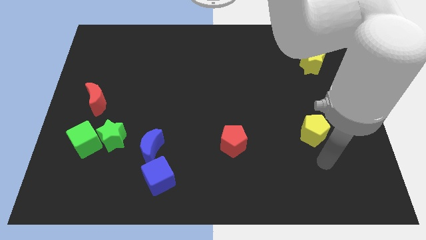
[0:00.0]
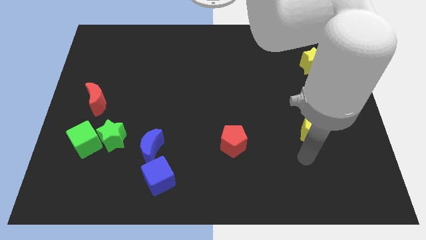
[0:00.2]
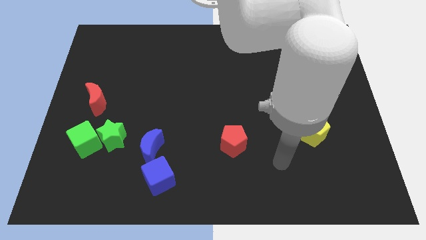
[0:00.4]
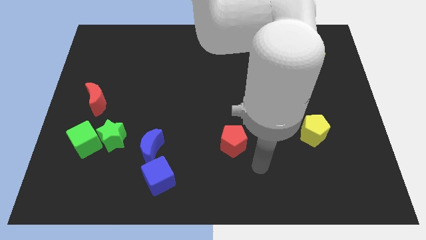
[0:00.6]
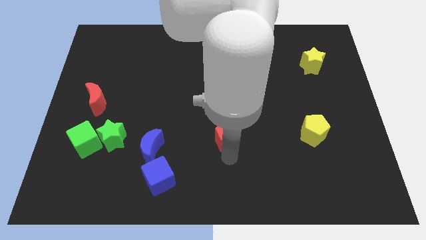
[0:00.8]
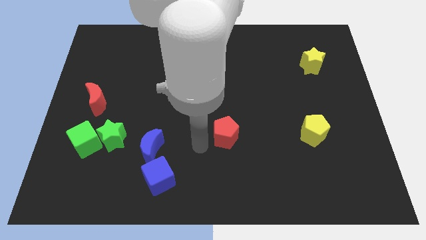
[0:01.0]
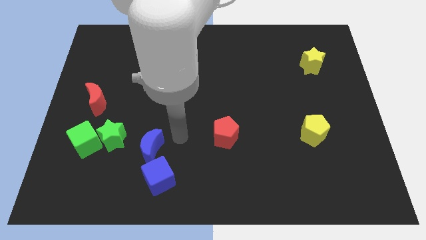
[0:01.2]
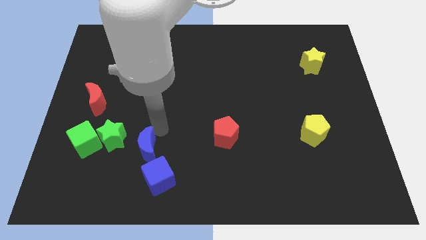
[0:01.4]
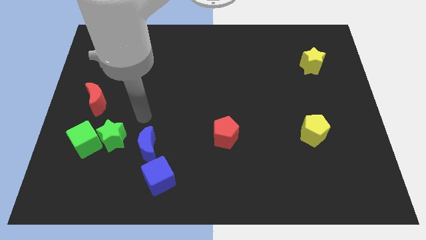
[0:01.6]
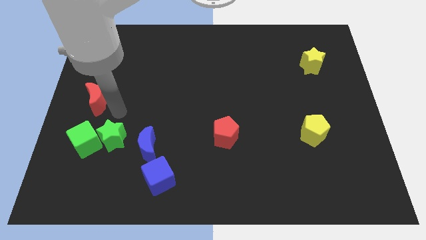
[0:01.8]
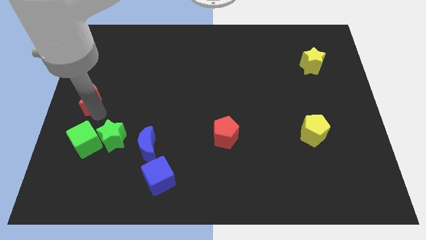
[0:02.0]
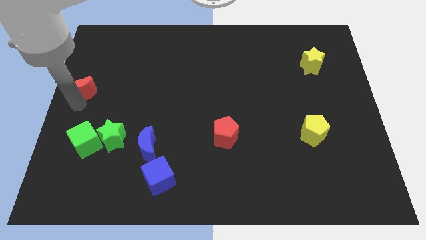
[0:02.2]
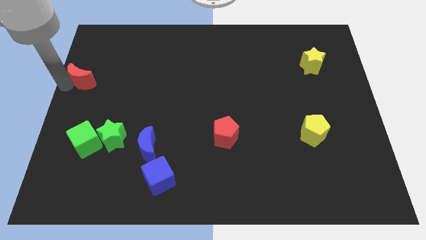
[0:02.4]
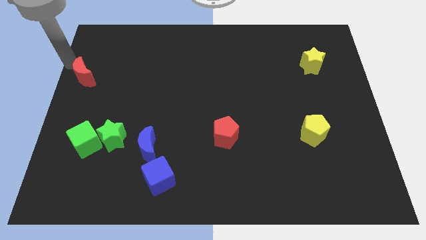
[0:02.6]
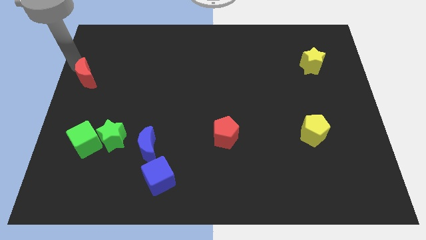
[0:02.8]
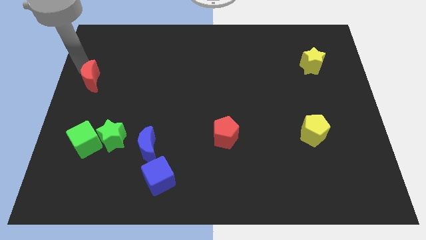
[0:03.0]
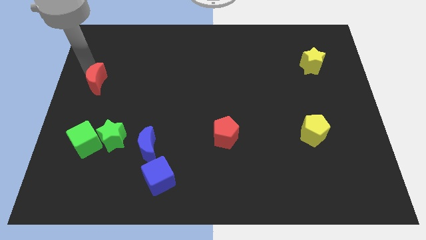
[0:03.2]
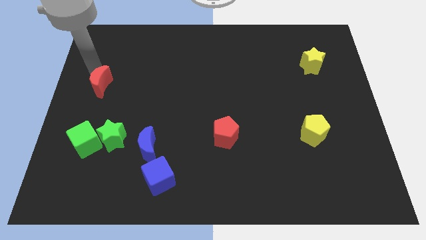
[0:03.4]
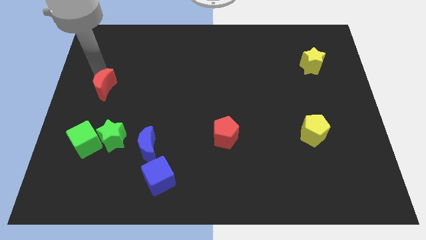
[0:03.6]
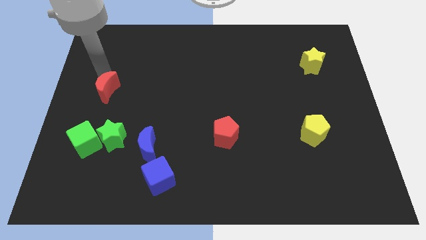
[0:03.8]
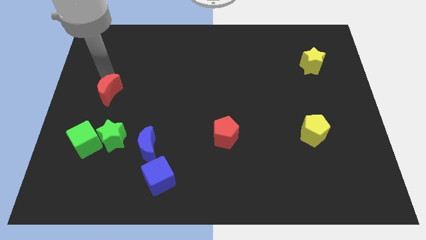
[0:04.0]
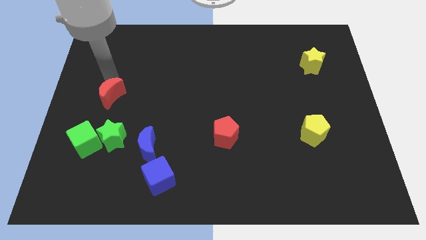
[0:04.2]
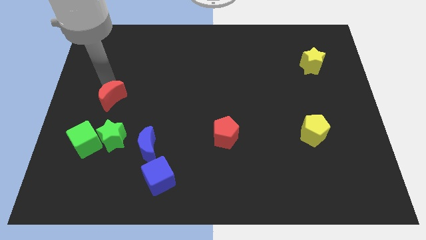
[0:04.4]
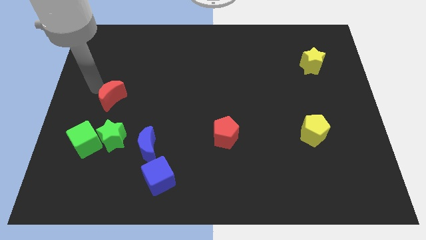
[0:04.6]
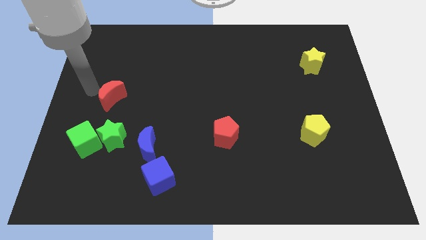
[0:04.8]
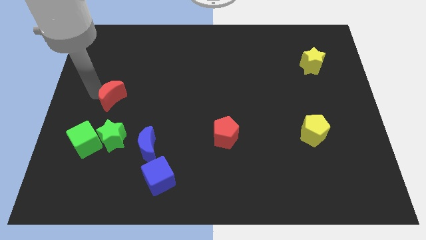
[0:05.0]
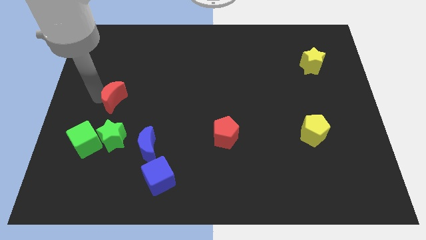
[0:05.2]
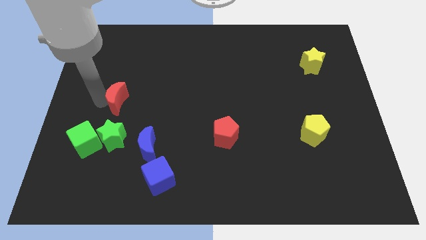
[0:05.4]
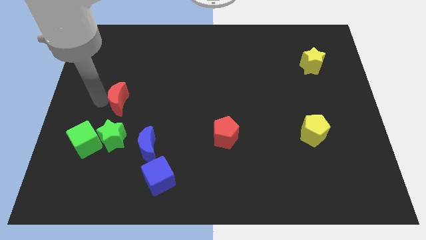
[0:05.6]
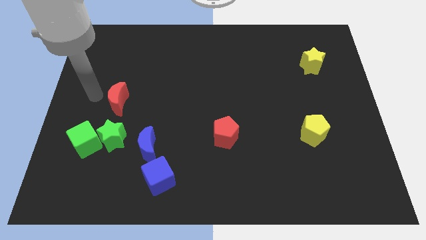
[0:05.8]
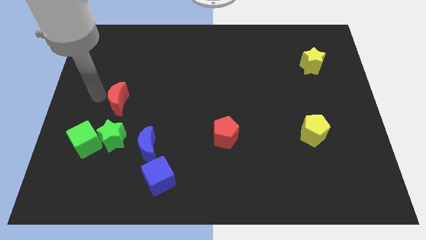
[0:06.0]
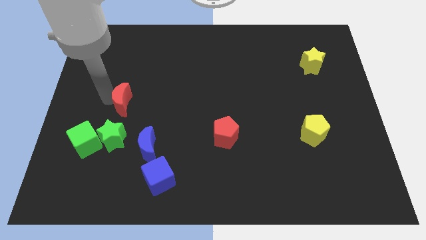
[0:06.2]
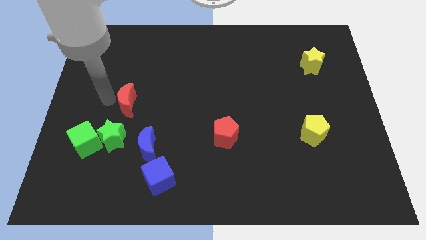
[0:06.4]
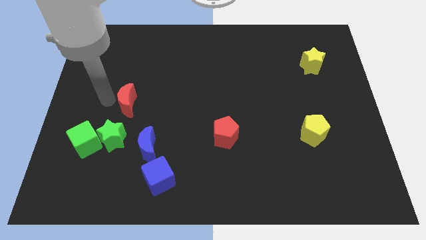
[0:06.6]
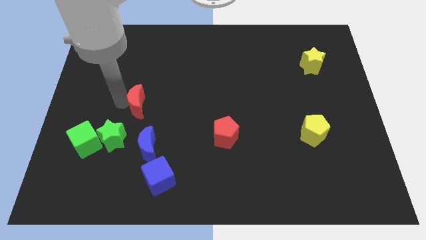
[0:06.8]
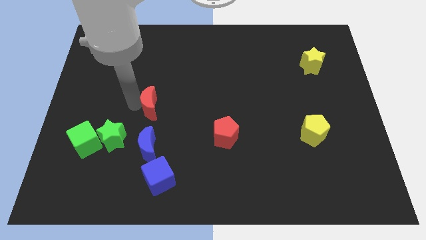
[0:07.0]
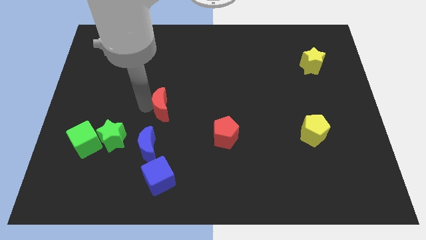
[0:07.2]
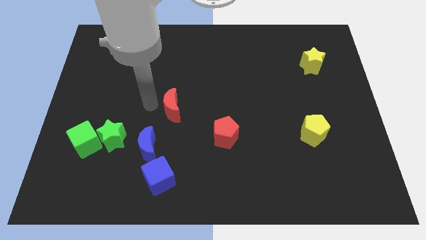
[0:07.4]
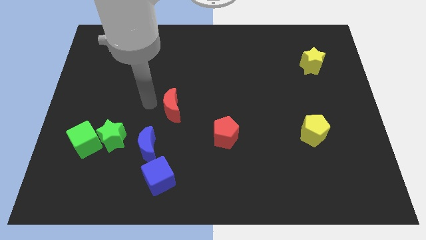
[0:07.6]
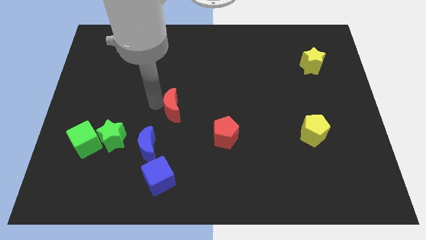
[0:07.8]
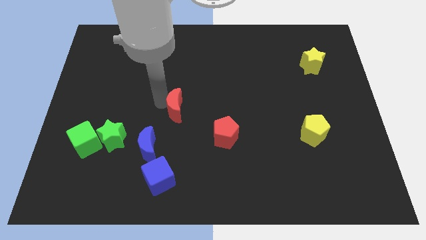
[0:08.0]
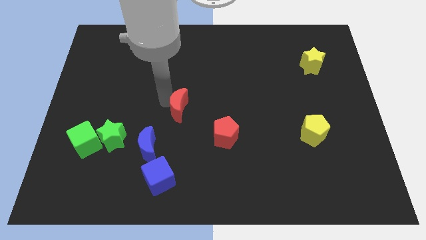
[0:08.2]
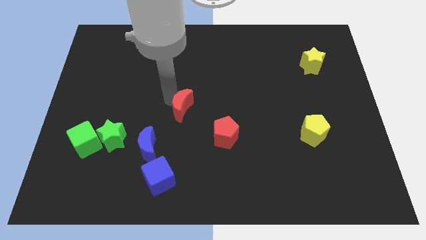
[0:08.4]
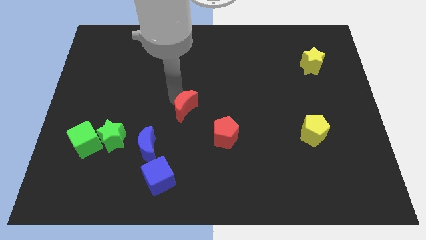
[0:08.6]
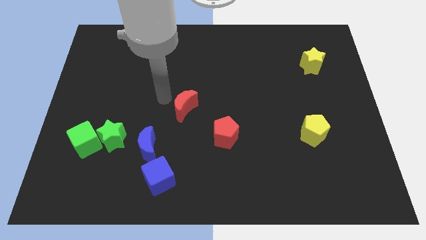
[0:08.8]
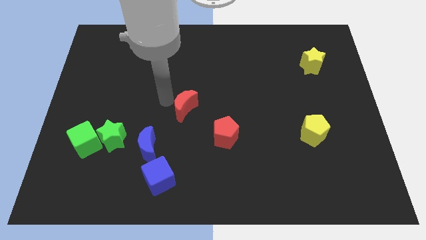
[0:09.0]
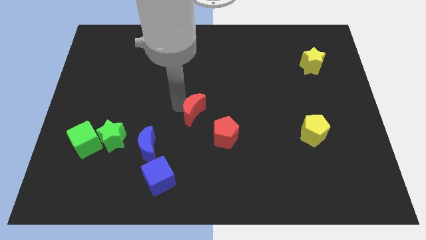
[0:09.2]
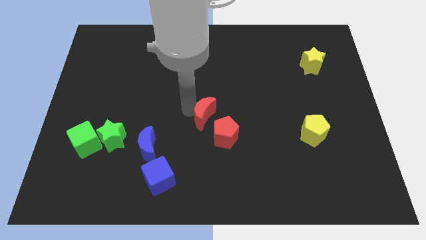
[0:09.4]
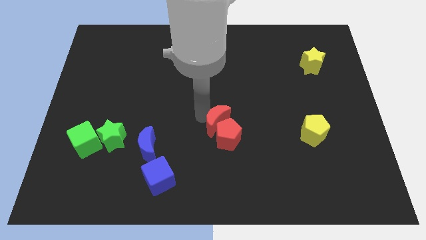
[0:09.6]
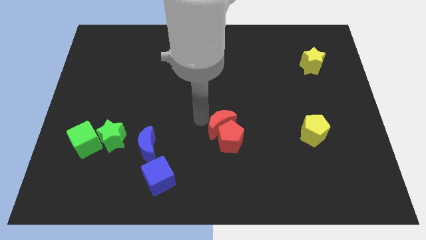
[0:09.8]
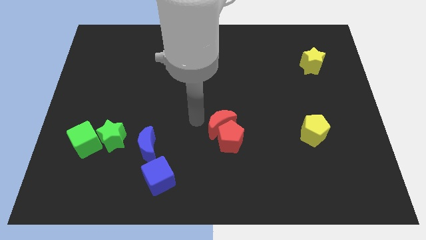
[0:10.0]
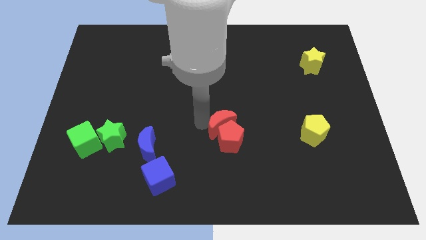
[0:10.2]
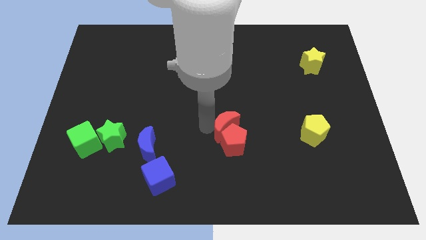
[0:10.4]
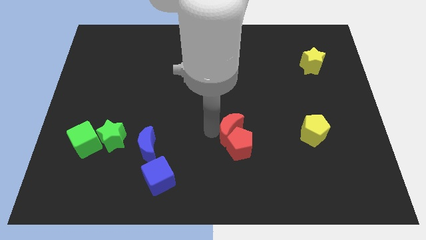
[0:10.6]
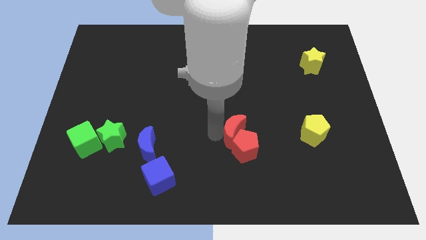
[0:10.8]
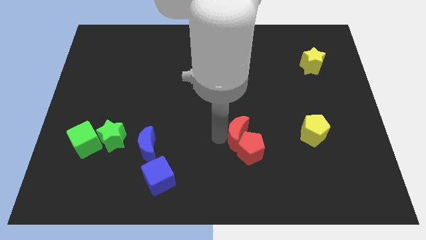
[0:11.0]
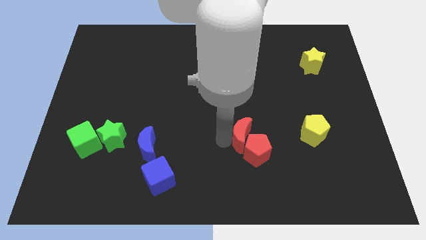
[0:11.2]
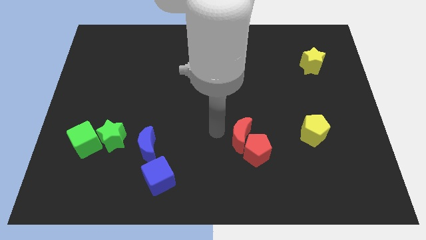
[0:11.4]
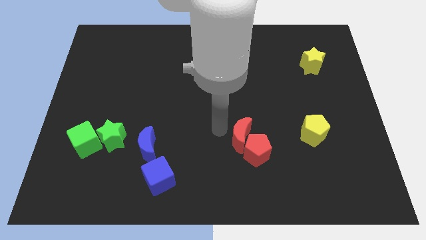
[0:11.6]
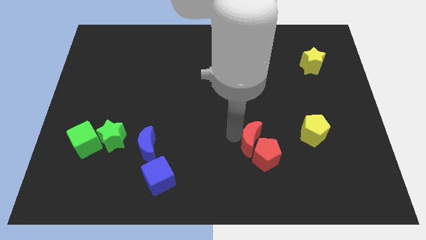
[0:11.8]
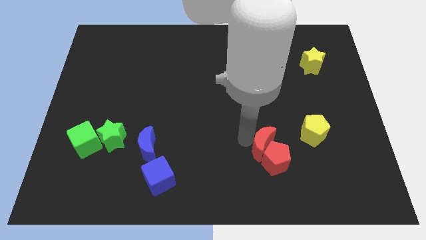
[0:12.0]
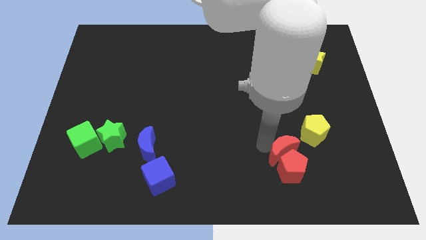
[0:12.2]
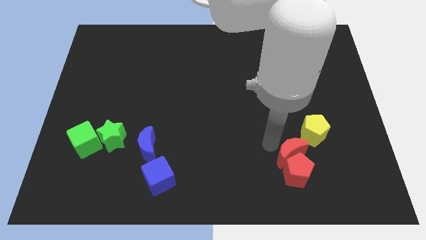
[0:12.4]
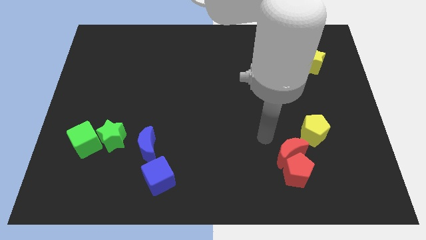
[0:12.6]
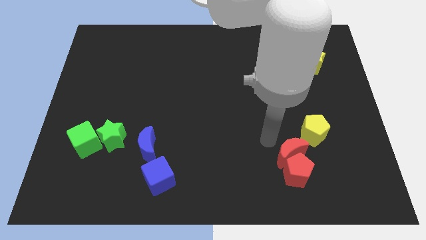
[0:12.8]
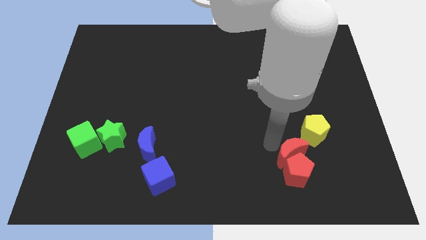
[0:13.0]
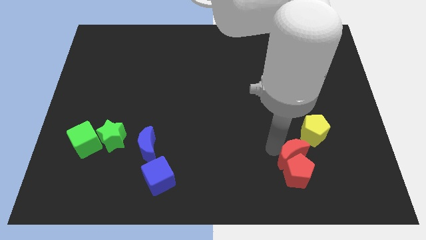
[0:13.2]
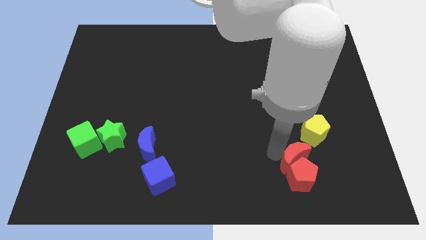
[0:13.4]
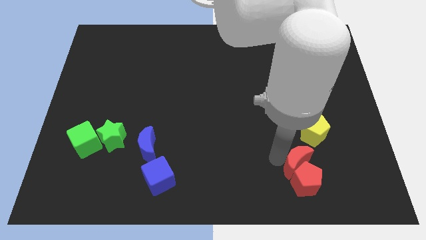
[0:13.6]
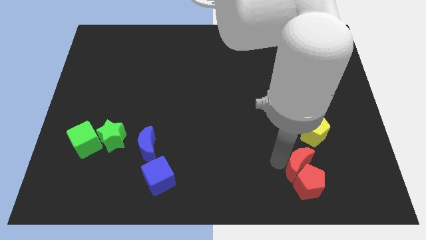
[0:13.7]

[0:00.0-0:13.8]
push the red moon below the yellow pentagon
